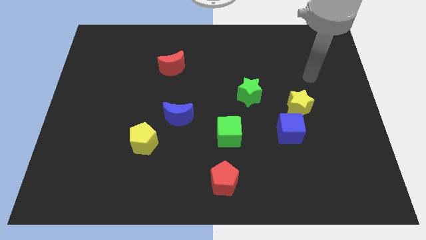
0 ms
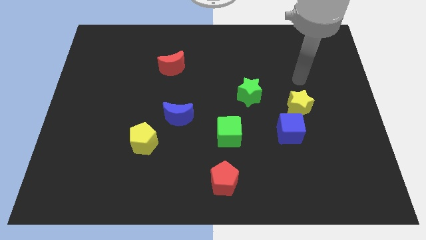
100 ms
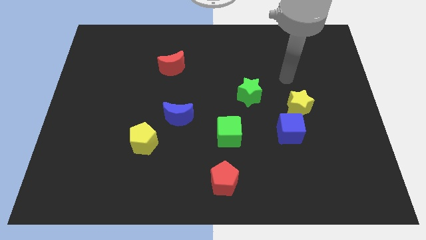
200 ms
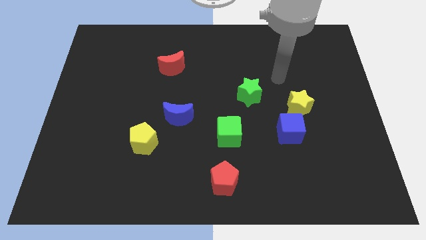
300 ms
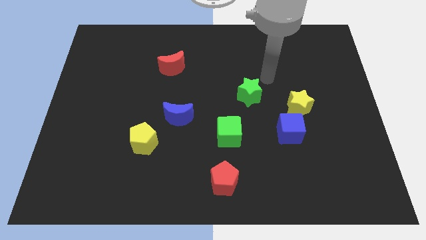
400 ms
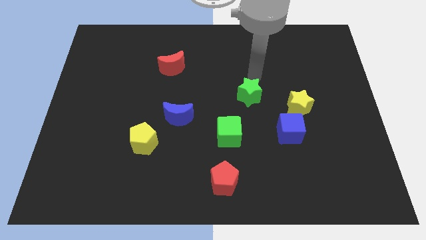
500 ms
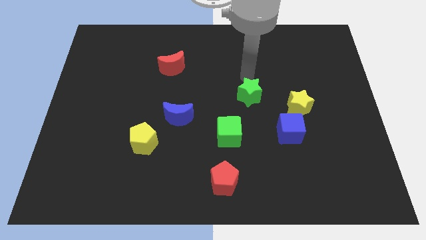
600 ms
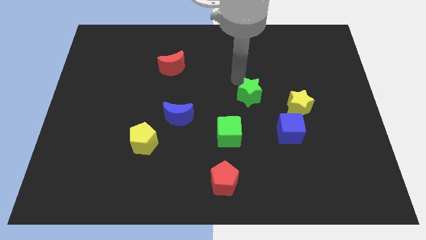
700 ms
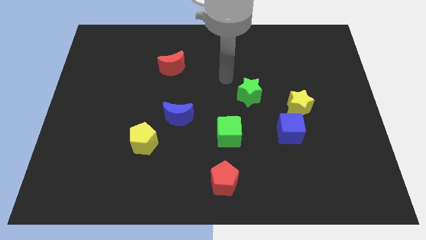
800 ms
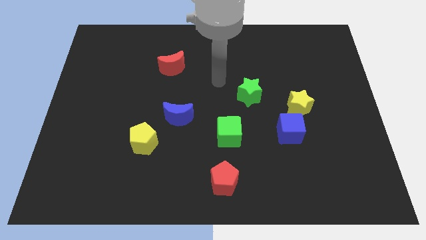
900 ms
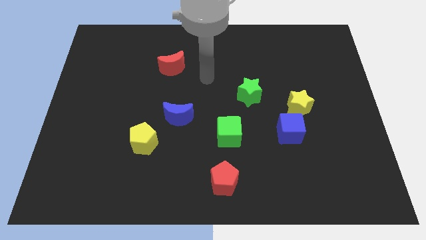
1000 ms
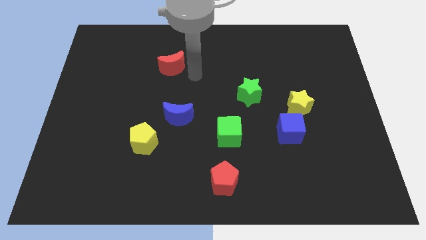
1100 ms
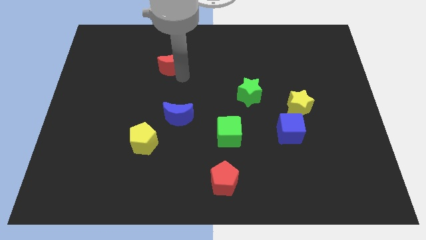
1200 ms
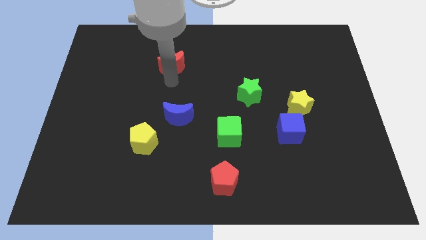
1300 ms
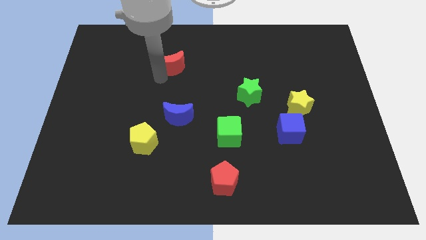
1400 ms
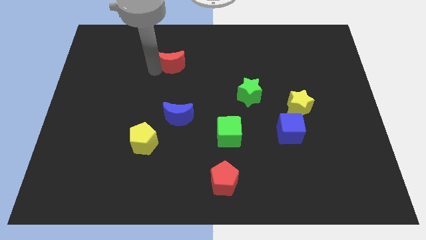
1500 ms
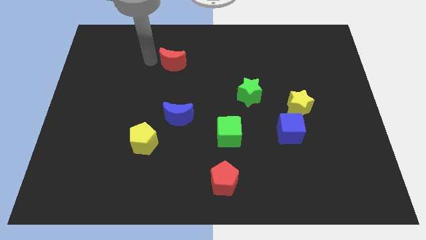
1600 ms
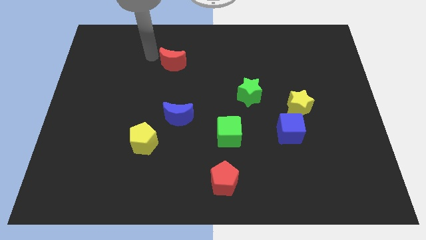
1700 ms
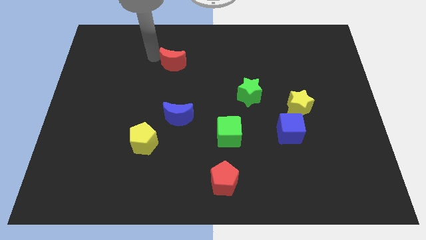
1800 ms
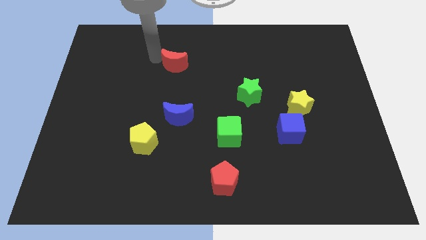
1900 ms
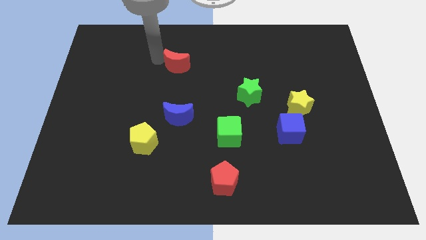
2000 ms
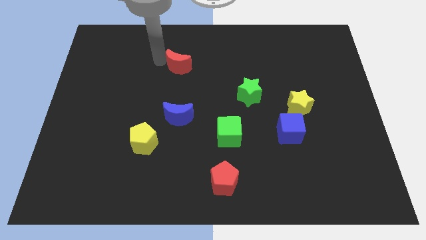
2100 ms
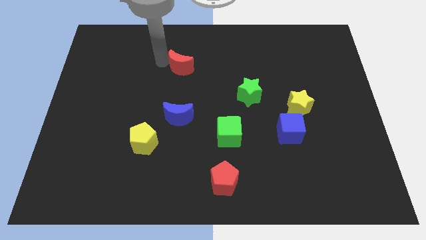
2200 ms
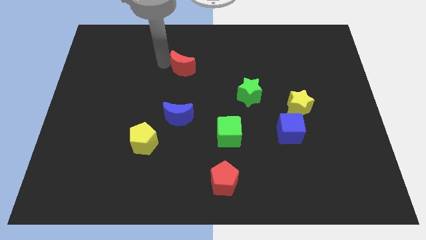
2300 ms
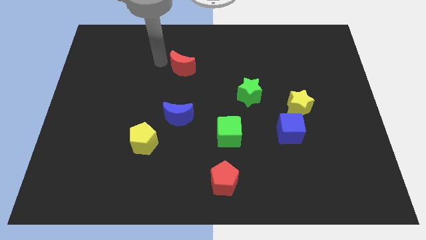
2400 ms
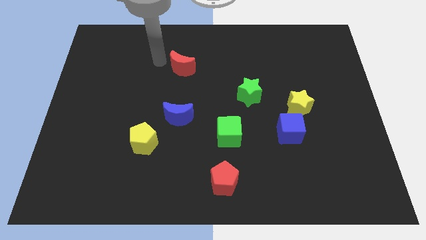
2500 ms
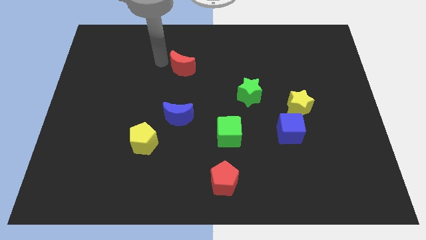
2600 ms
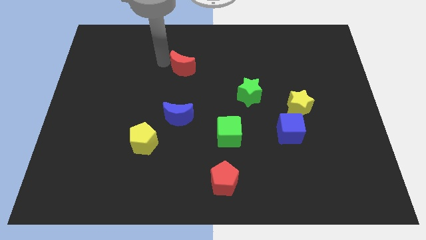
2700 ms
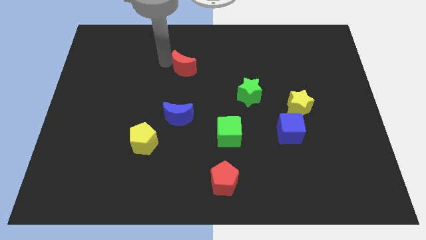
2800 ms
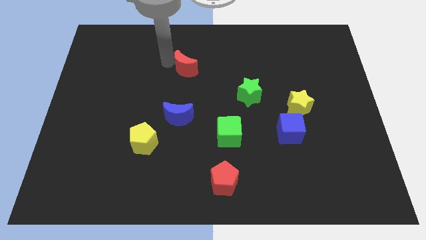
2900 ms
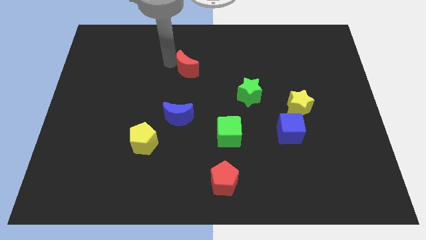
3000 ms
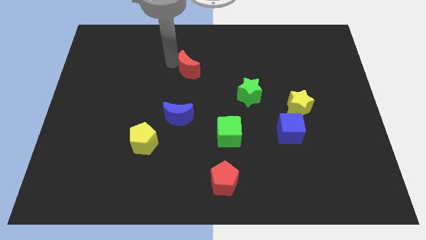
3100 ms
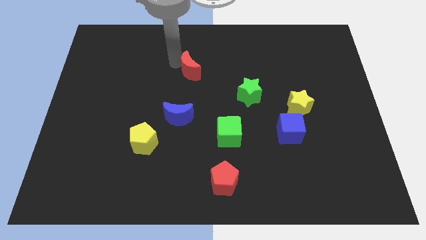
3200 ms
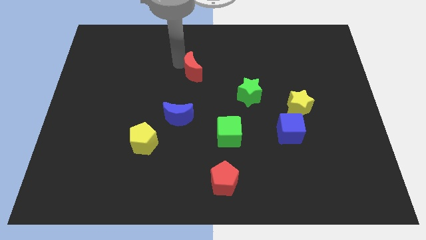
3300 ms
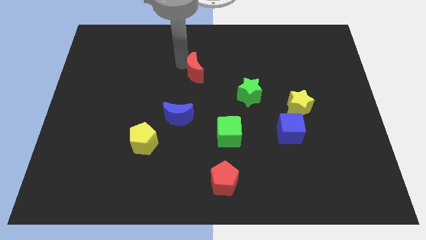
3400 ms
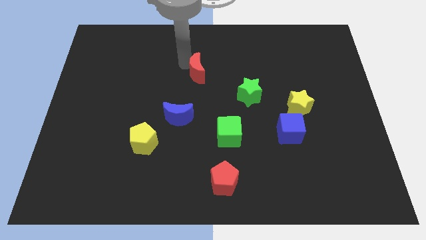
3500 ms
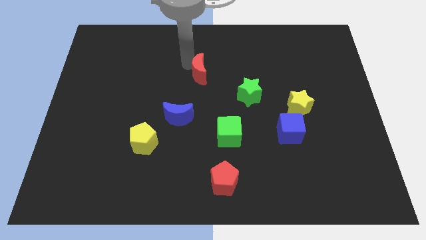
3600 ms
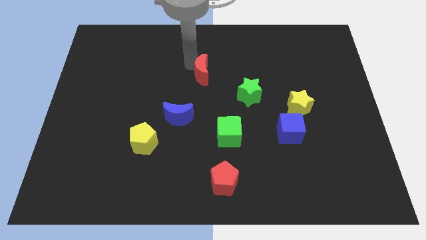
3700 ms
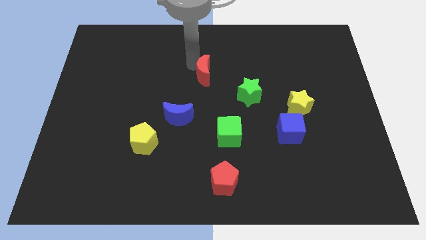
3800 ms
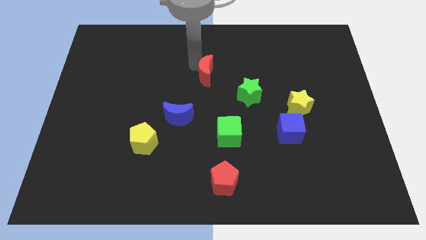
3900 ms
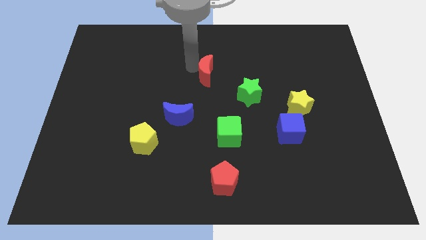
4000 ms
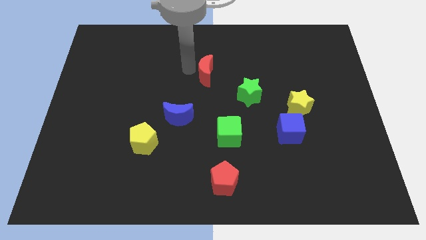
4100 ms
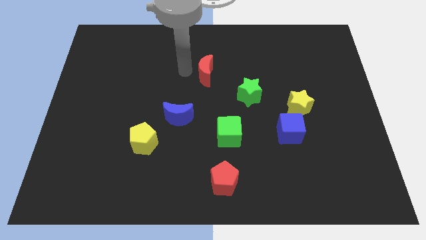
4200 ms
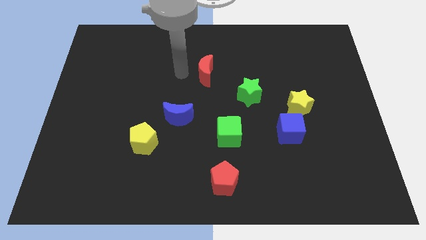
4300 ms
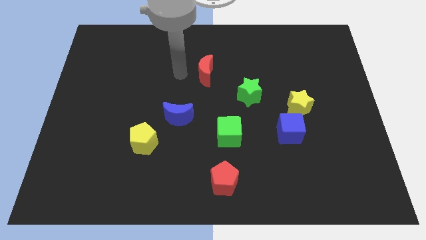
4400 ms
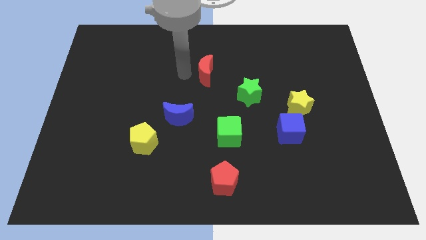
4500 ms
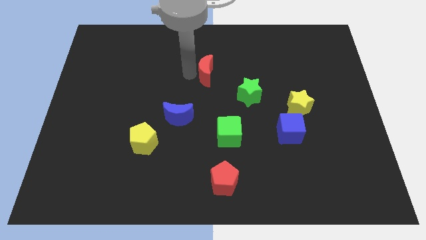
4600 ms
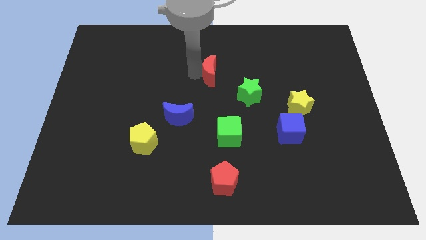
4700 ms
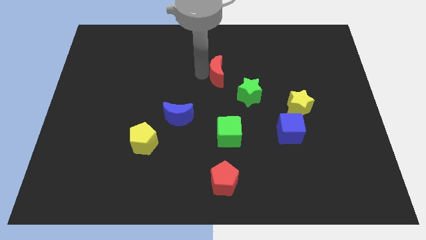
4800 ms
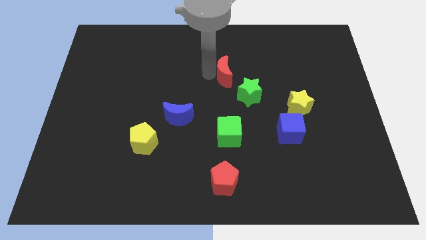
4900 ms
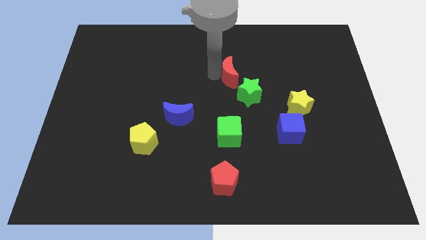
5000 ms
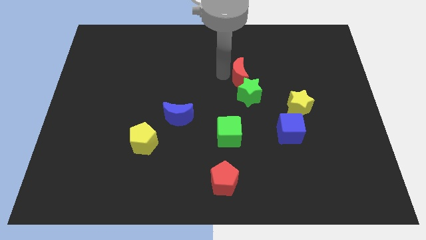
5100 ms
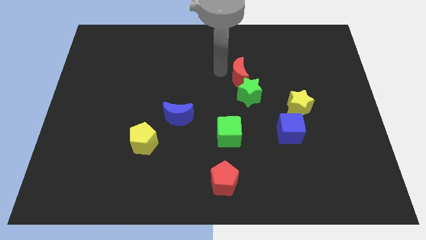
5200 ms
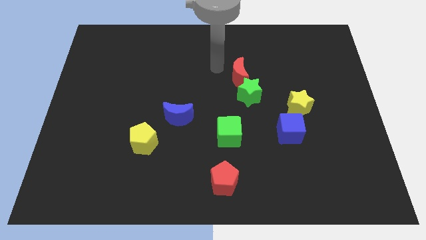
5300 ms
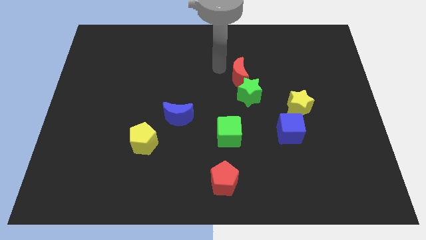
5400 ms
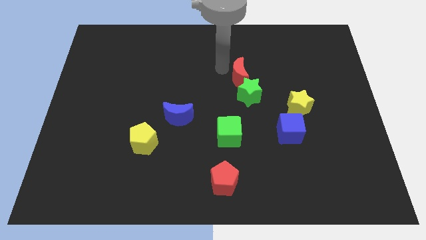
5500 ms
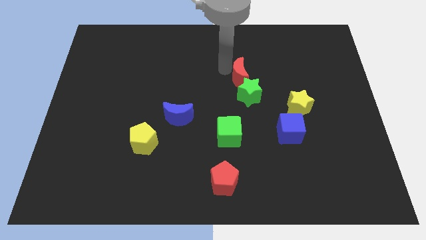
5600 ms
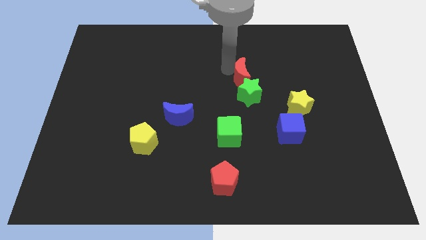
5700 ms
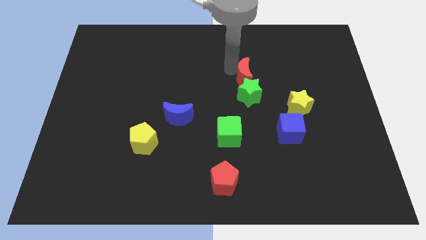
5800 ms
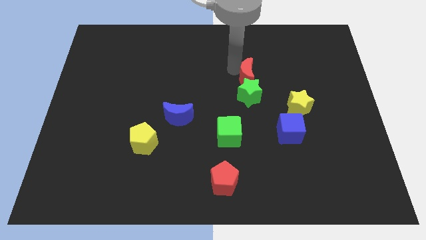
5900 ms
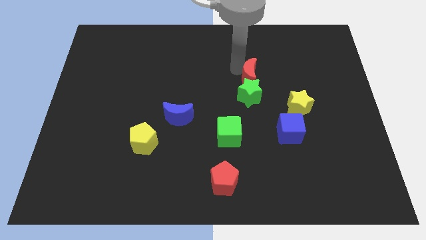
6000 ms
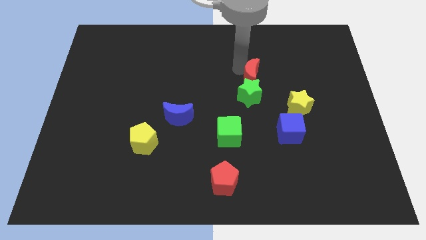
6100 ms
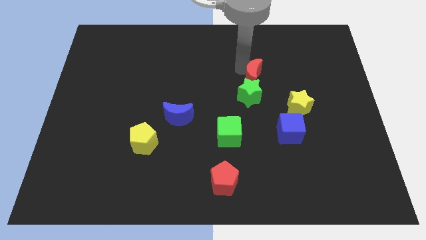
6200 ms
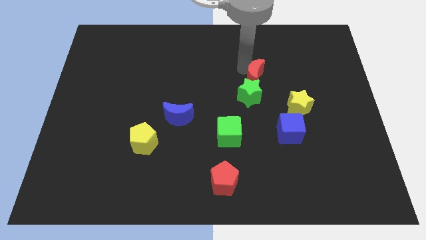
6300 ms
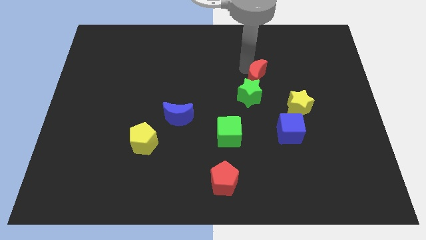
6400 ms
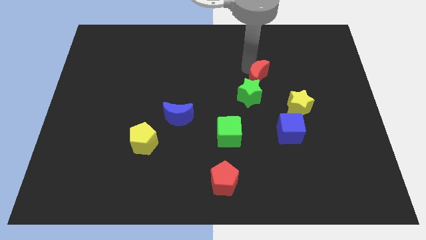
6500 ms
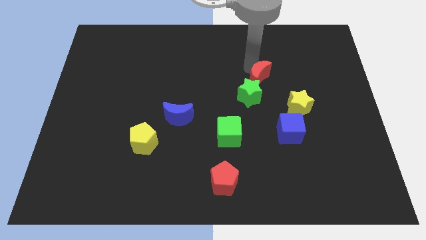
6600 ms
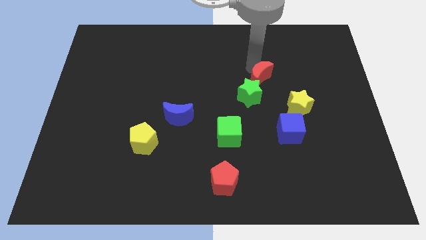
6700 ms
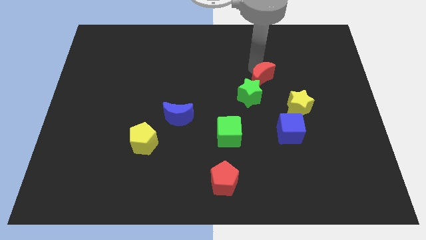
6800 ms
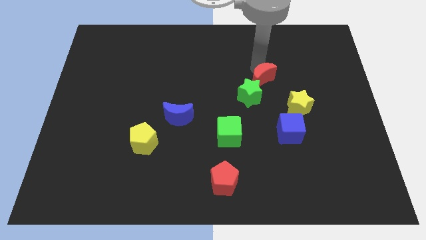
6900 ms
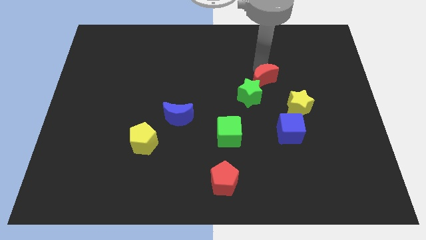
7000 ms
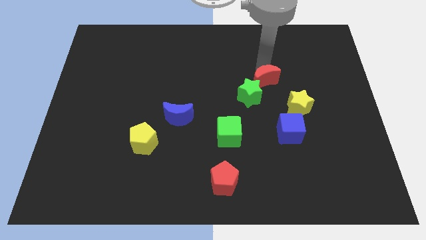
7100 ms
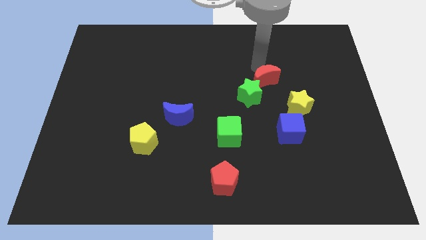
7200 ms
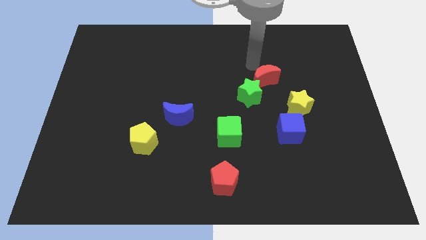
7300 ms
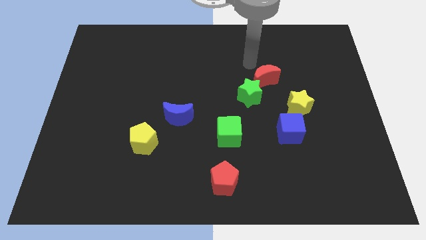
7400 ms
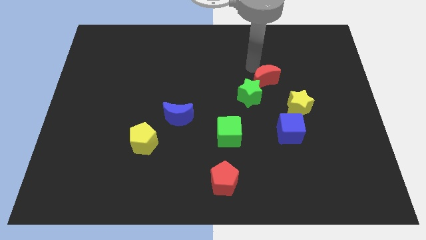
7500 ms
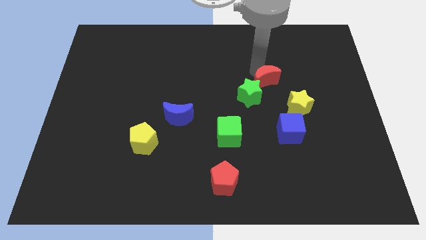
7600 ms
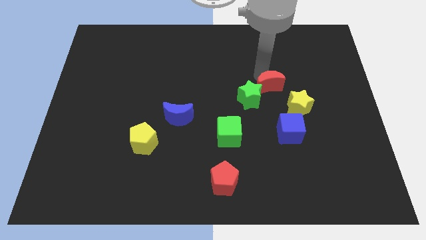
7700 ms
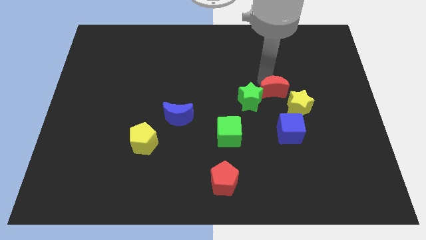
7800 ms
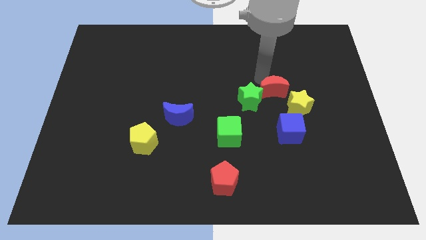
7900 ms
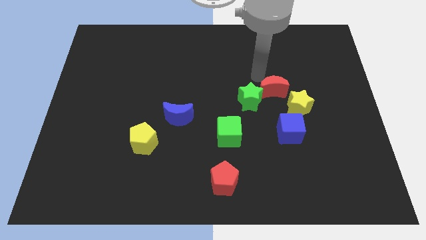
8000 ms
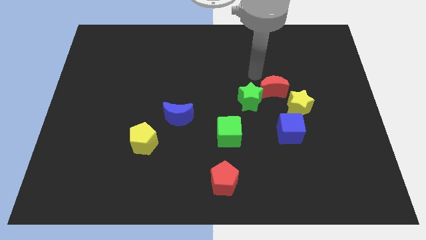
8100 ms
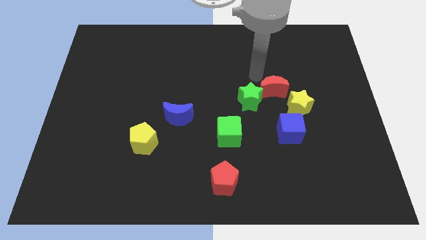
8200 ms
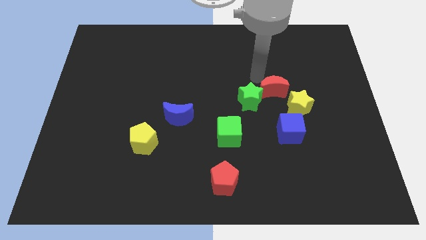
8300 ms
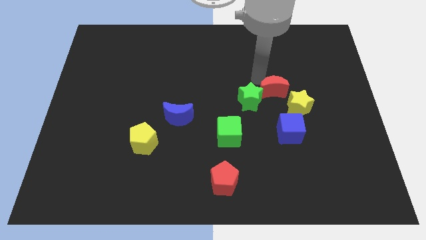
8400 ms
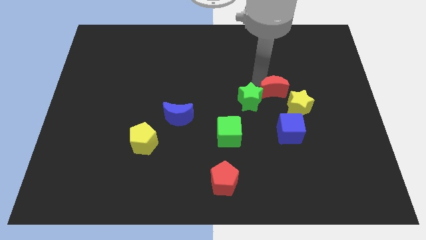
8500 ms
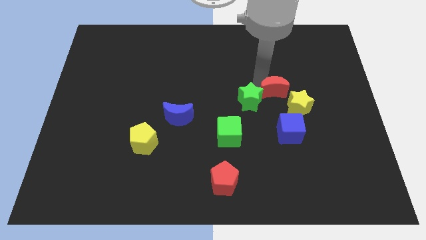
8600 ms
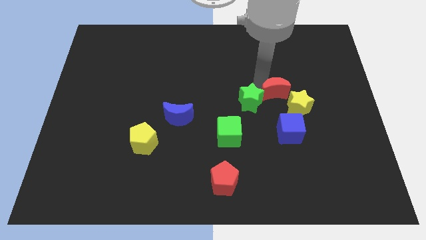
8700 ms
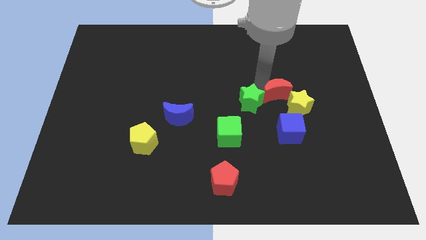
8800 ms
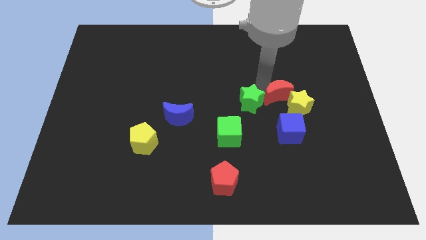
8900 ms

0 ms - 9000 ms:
push the red moon to the yellow star
